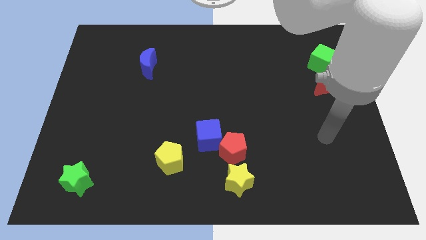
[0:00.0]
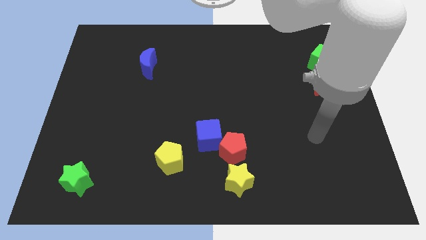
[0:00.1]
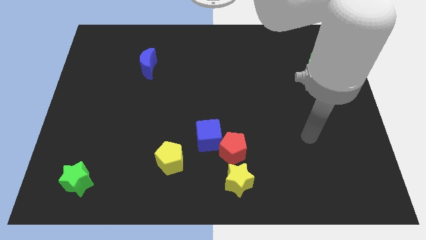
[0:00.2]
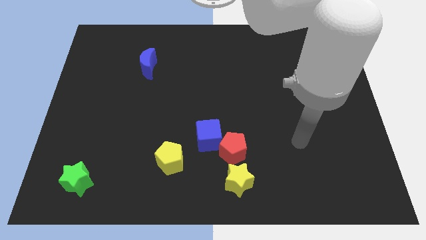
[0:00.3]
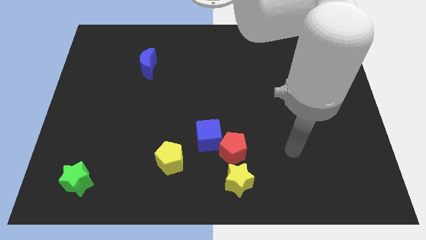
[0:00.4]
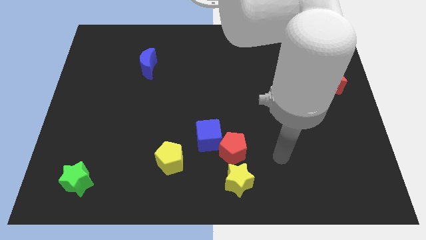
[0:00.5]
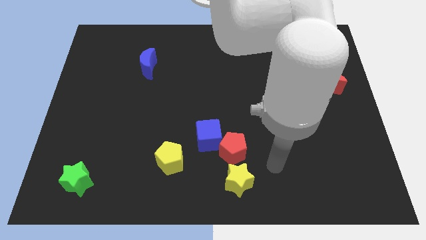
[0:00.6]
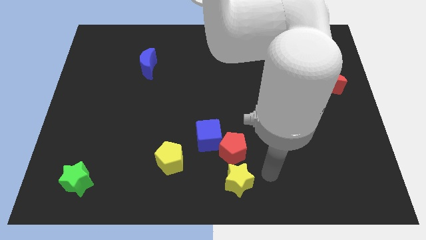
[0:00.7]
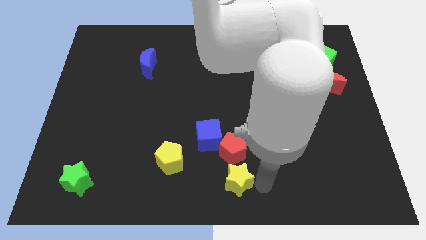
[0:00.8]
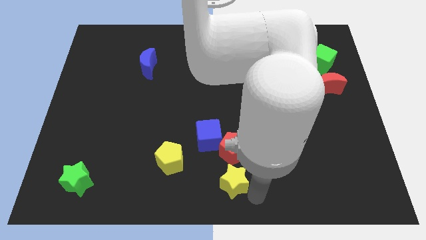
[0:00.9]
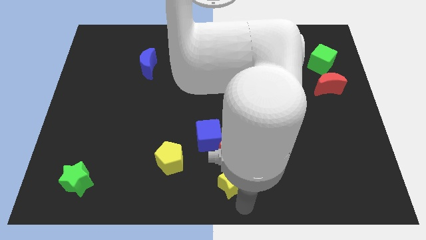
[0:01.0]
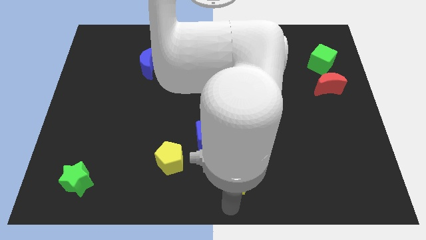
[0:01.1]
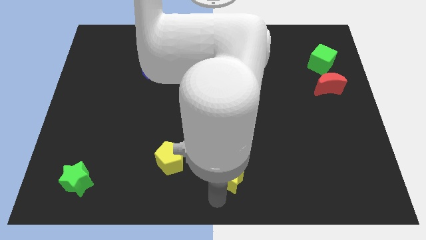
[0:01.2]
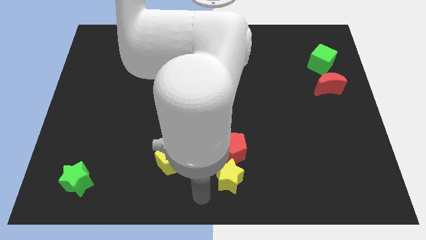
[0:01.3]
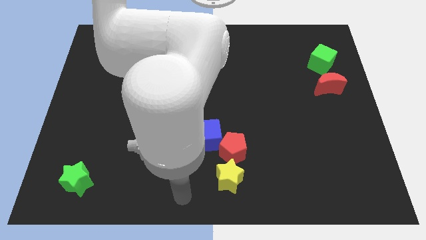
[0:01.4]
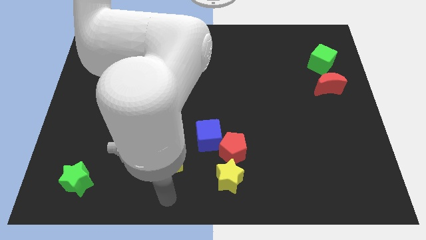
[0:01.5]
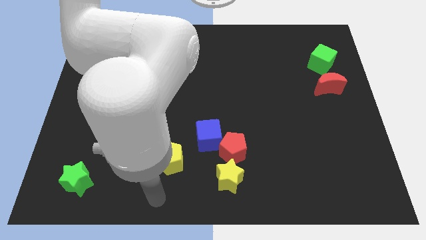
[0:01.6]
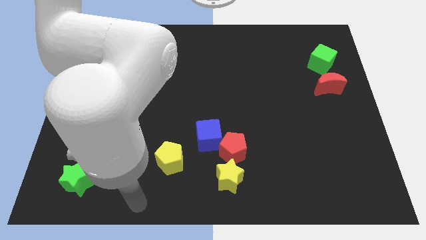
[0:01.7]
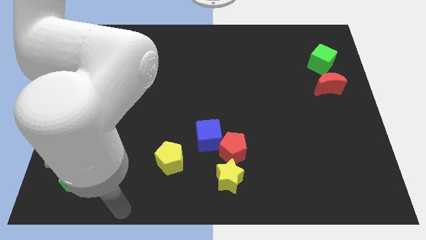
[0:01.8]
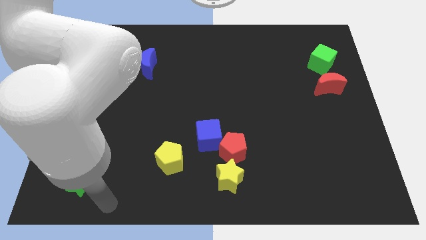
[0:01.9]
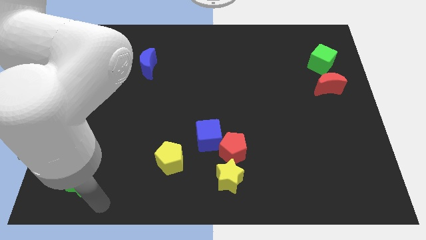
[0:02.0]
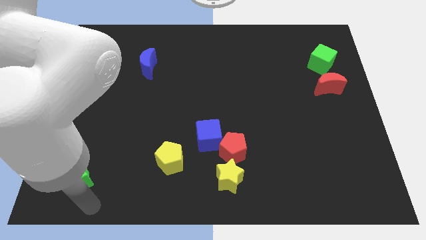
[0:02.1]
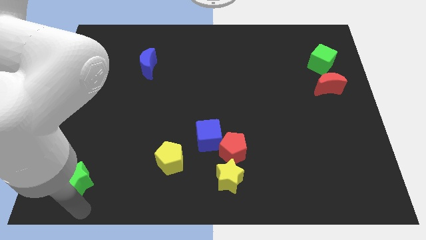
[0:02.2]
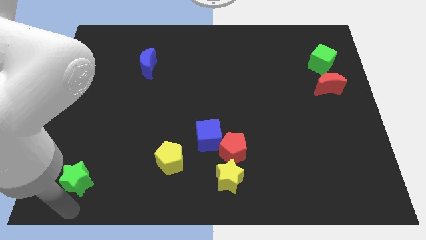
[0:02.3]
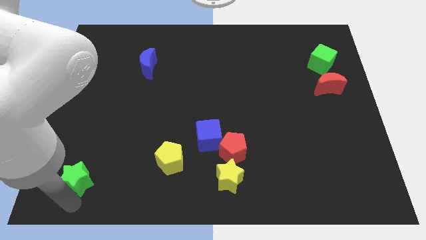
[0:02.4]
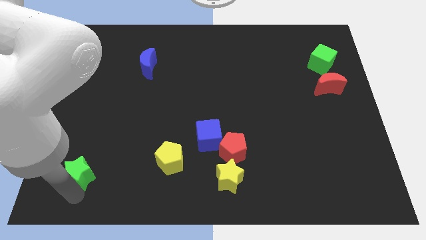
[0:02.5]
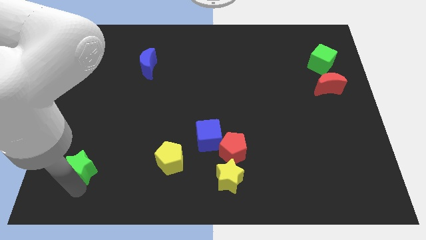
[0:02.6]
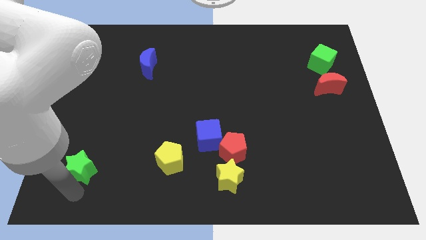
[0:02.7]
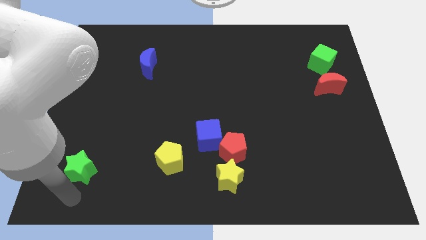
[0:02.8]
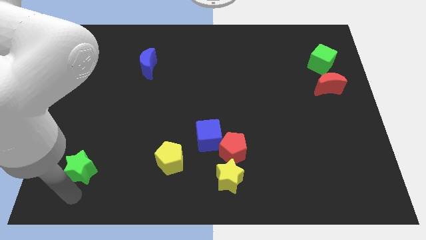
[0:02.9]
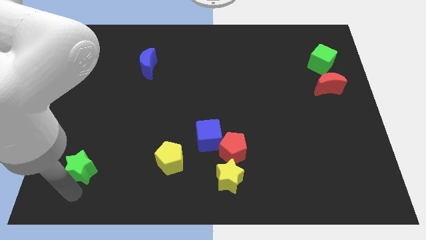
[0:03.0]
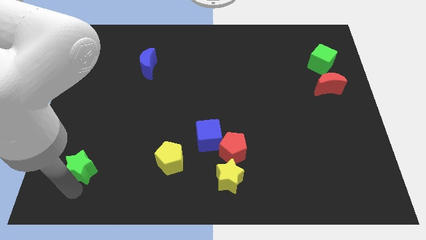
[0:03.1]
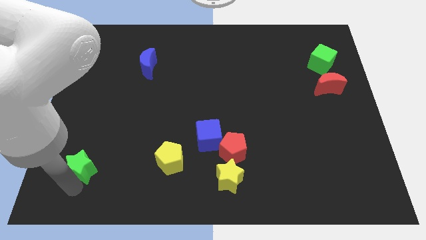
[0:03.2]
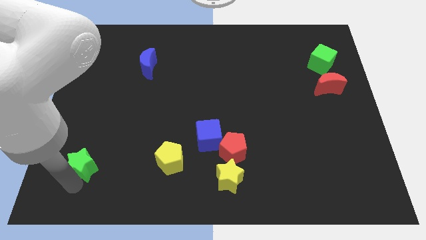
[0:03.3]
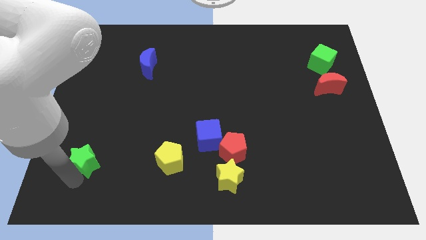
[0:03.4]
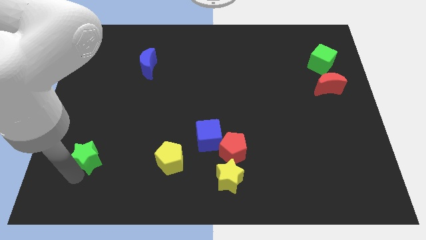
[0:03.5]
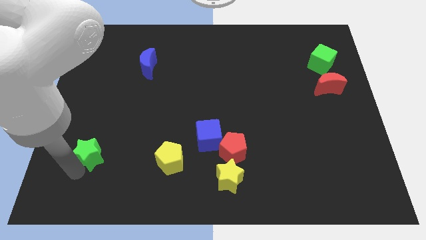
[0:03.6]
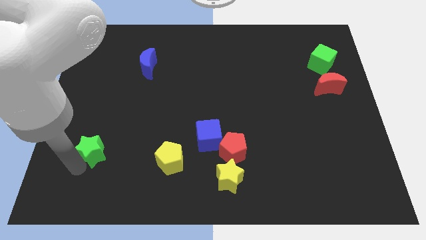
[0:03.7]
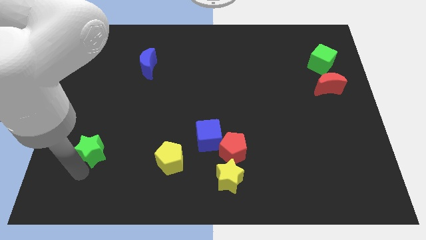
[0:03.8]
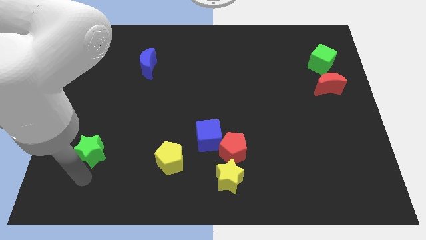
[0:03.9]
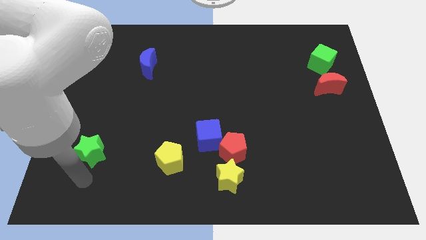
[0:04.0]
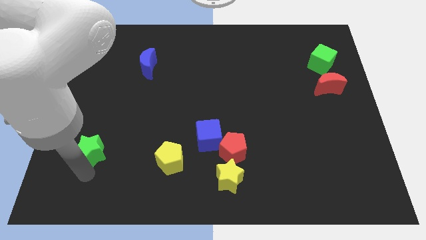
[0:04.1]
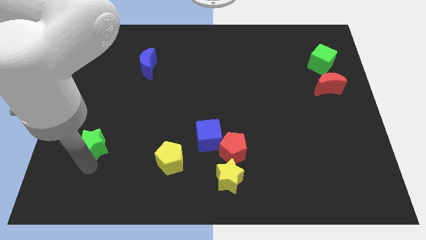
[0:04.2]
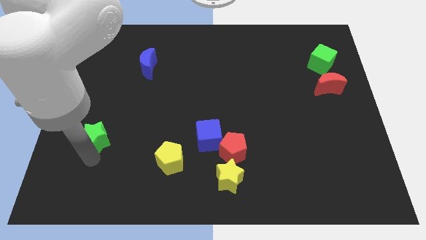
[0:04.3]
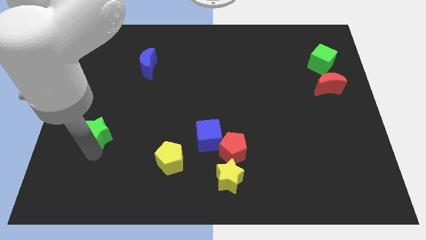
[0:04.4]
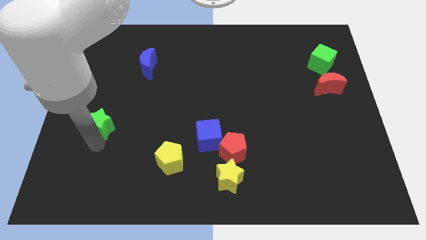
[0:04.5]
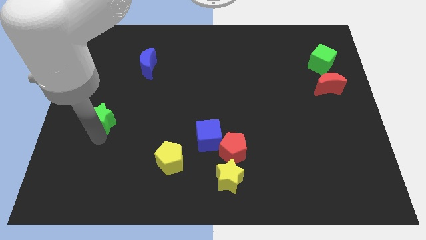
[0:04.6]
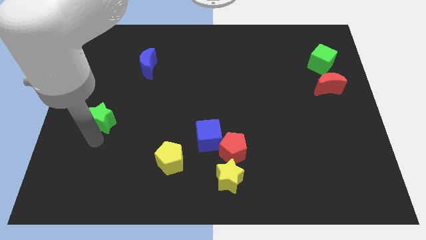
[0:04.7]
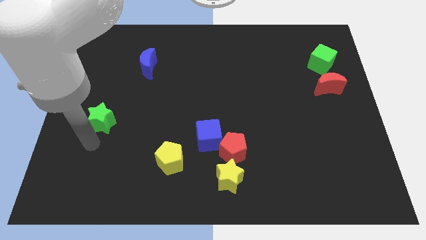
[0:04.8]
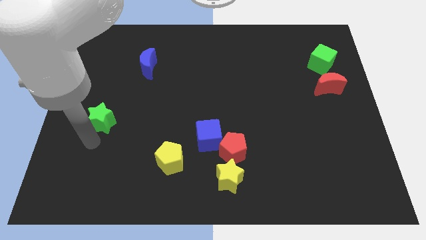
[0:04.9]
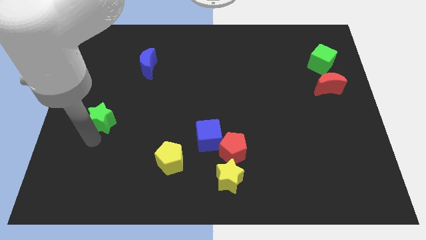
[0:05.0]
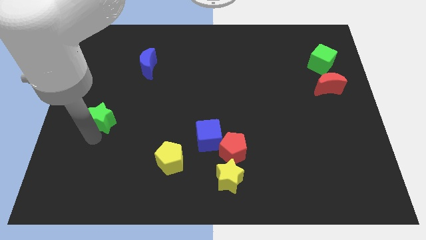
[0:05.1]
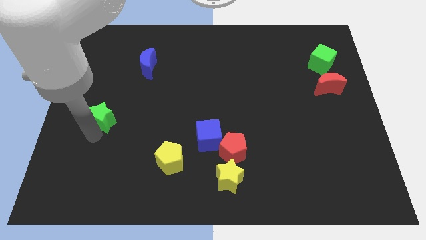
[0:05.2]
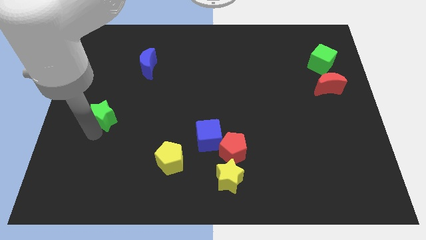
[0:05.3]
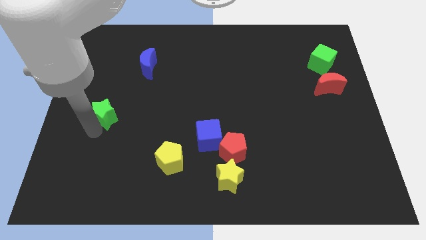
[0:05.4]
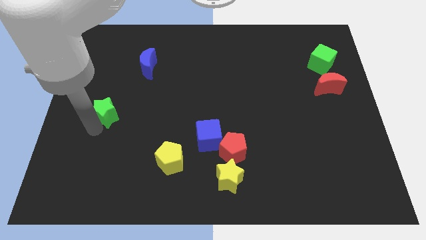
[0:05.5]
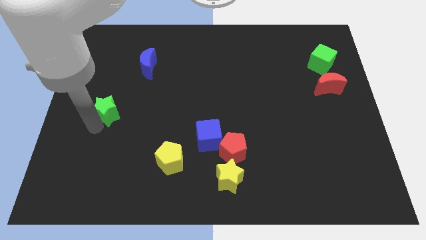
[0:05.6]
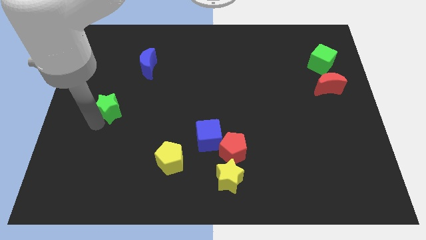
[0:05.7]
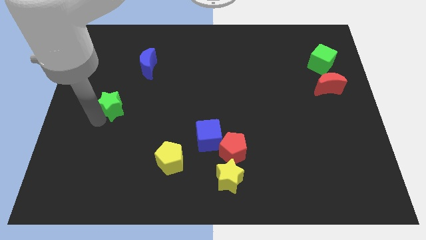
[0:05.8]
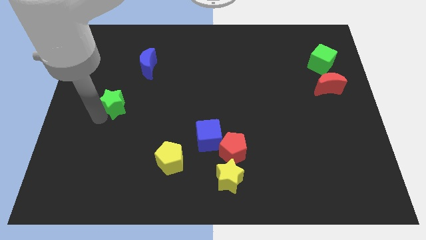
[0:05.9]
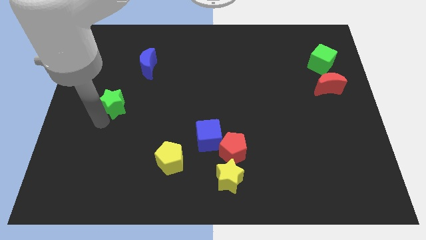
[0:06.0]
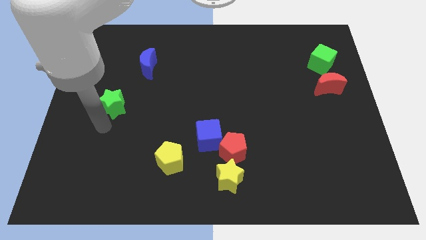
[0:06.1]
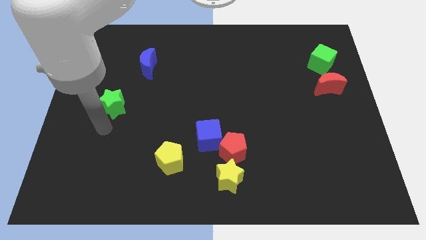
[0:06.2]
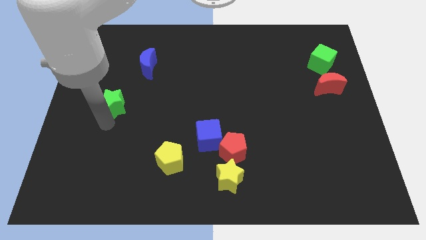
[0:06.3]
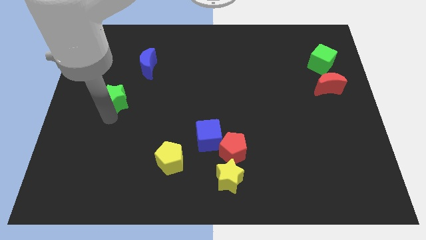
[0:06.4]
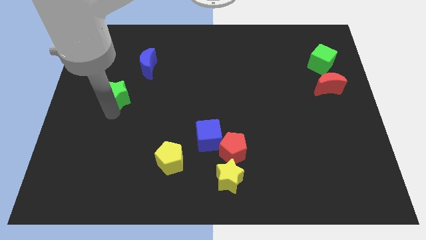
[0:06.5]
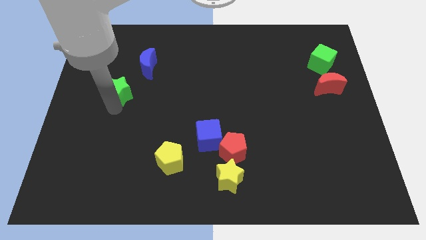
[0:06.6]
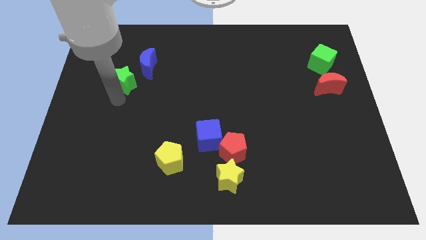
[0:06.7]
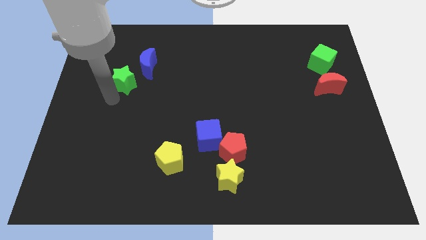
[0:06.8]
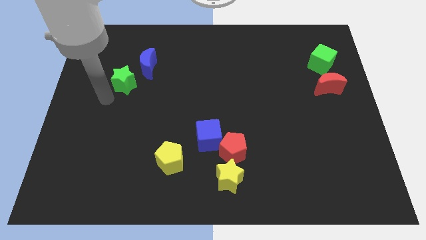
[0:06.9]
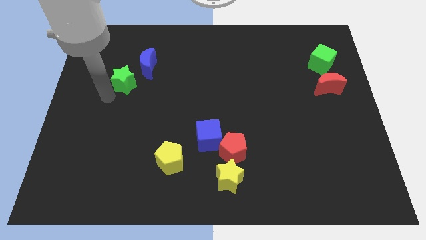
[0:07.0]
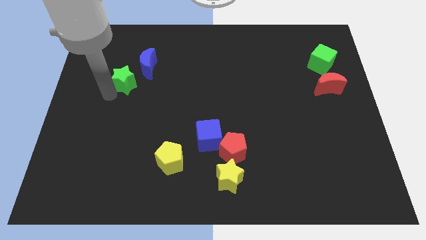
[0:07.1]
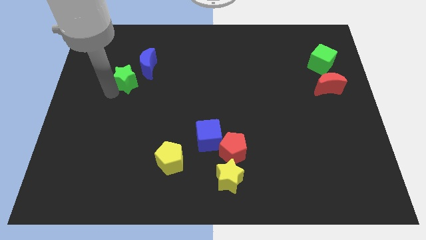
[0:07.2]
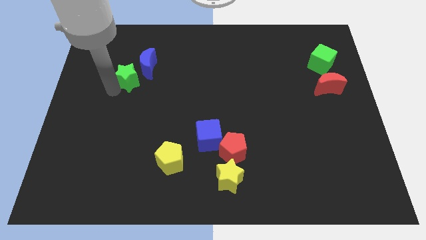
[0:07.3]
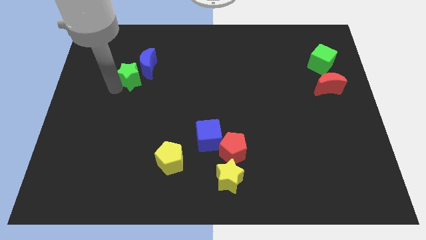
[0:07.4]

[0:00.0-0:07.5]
push the green star next to the blue moon
